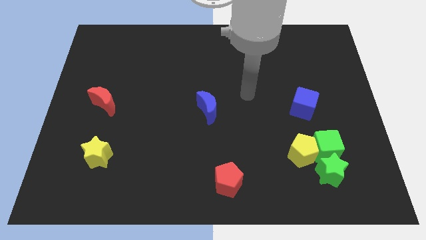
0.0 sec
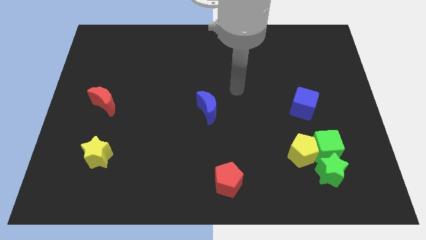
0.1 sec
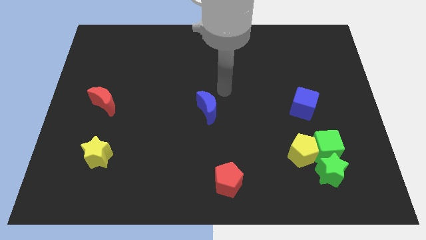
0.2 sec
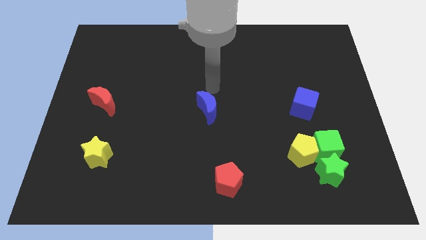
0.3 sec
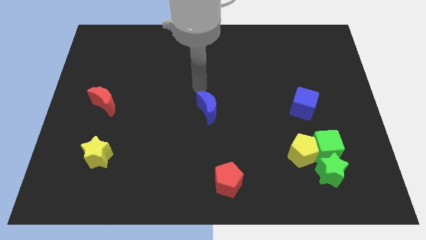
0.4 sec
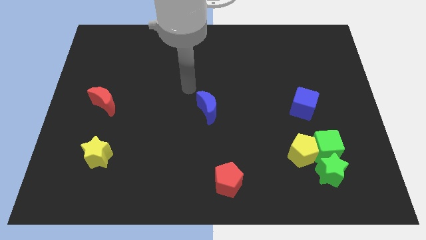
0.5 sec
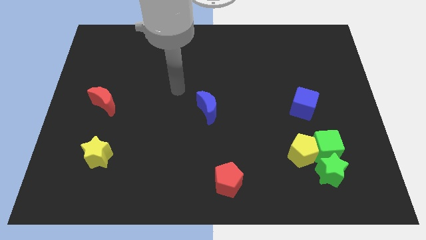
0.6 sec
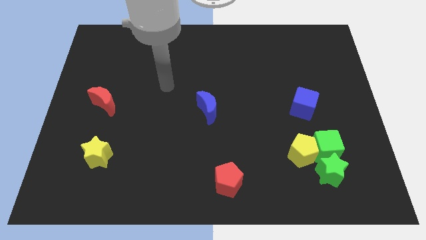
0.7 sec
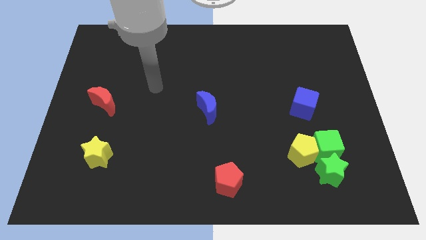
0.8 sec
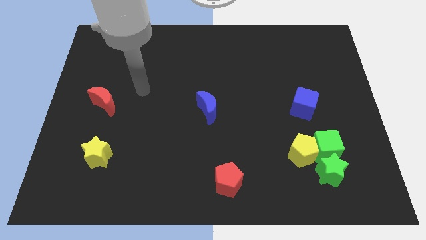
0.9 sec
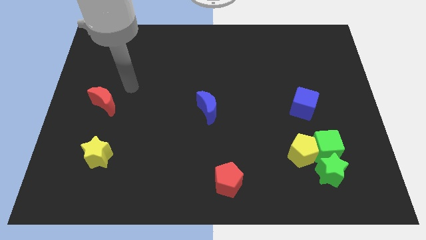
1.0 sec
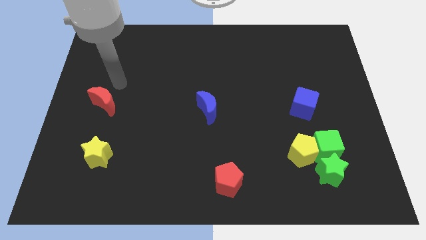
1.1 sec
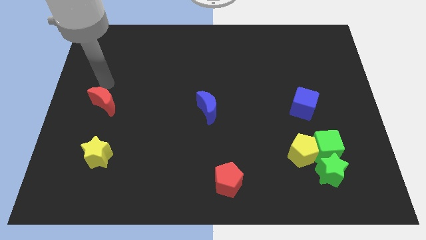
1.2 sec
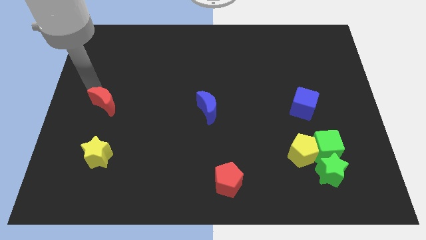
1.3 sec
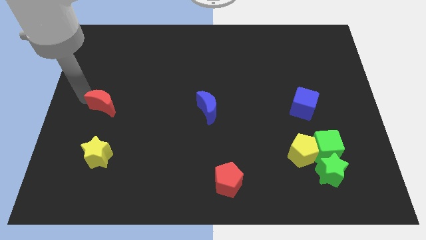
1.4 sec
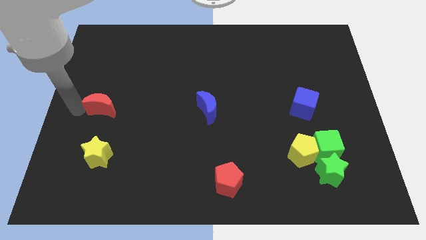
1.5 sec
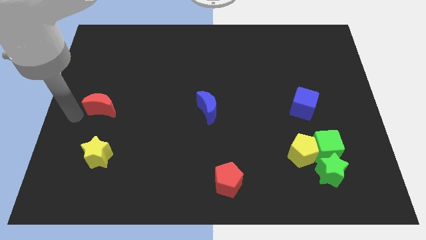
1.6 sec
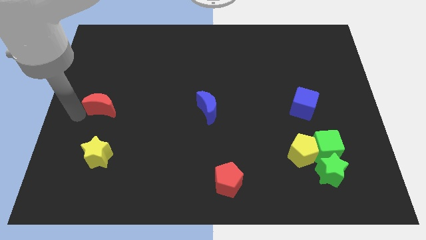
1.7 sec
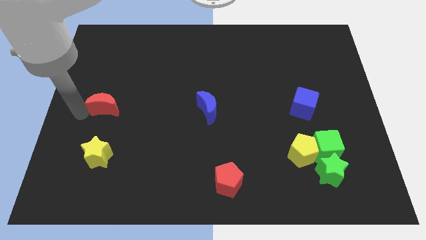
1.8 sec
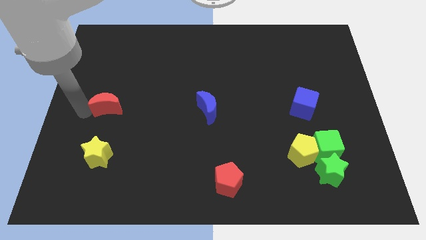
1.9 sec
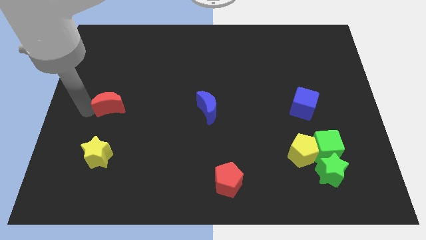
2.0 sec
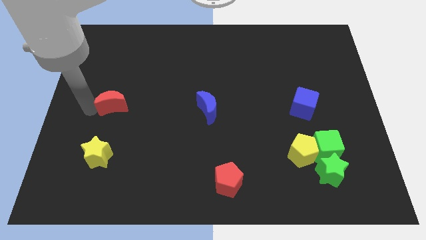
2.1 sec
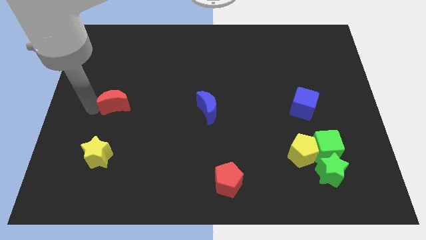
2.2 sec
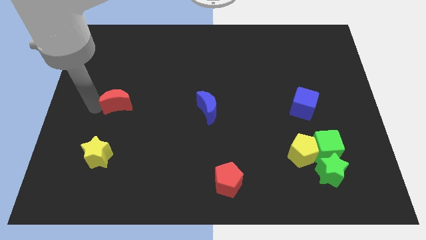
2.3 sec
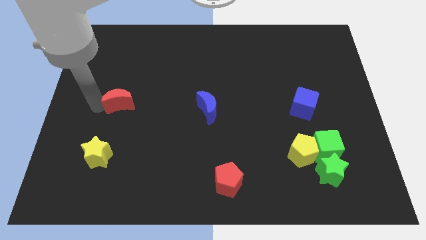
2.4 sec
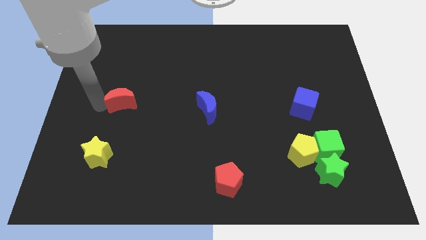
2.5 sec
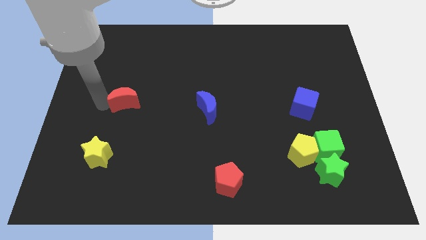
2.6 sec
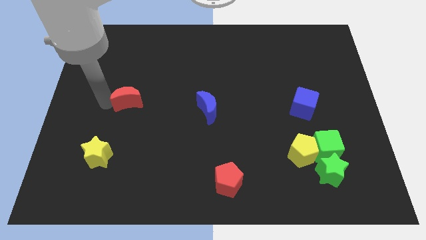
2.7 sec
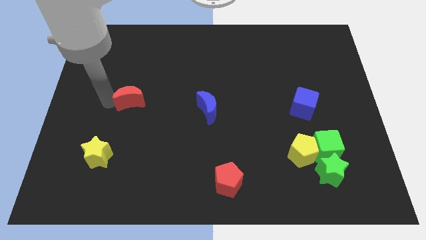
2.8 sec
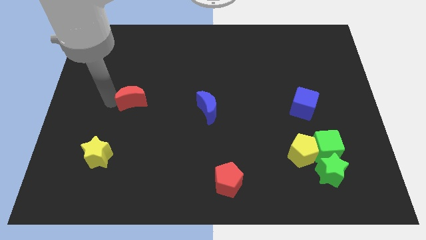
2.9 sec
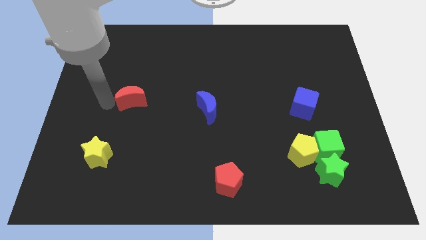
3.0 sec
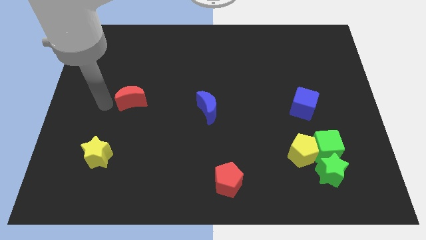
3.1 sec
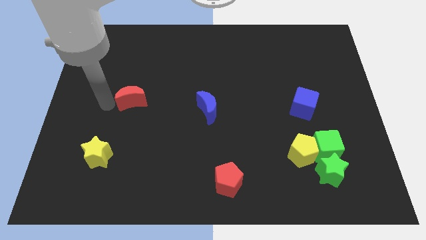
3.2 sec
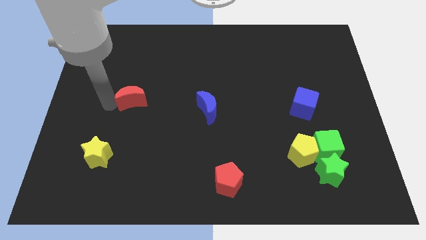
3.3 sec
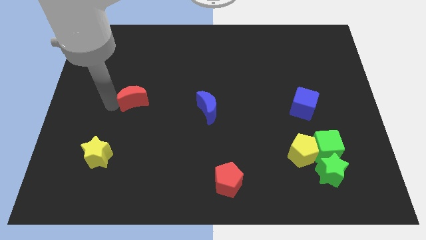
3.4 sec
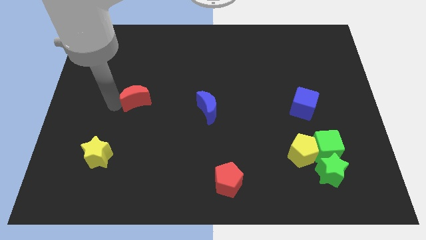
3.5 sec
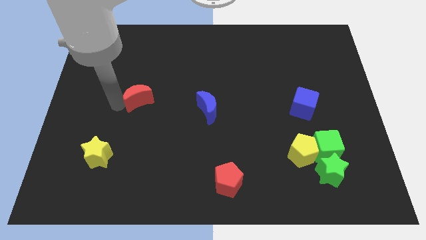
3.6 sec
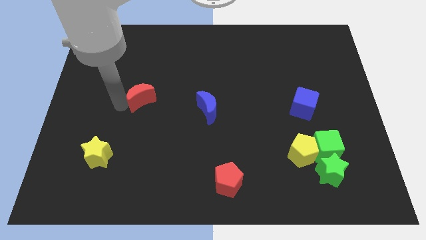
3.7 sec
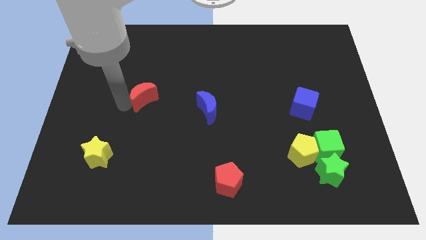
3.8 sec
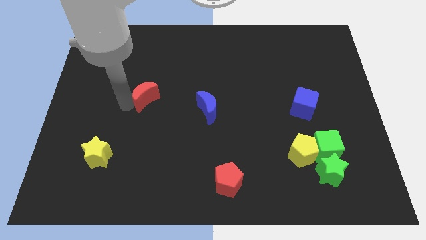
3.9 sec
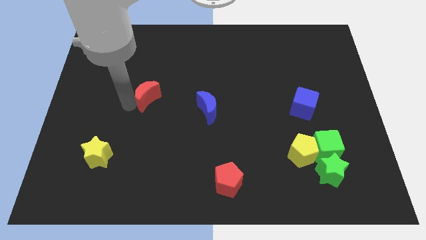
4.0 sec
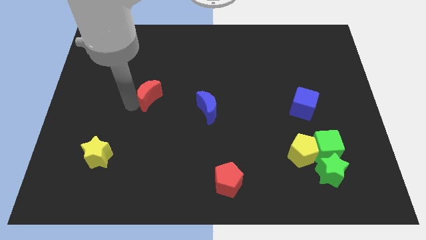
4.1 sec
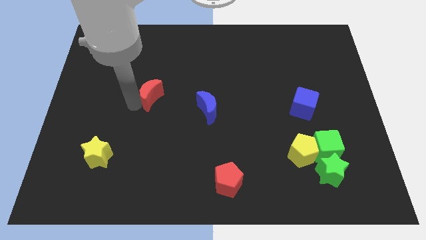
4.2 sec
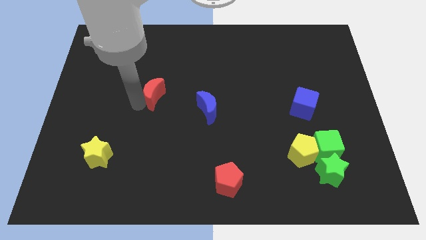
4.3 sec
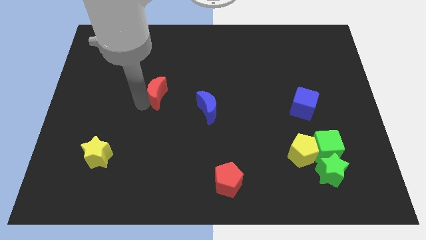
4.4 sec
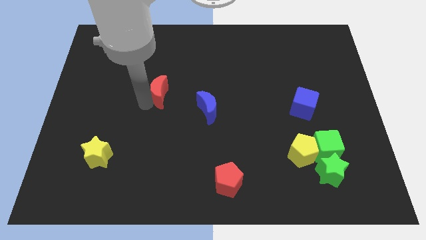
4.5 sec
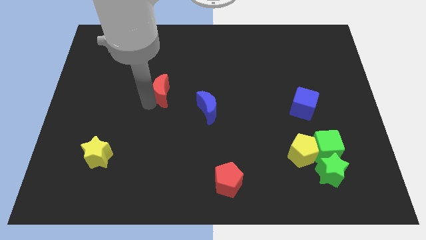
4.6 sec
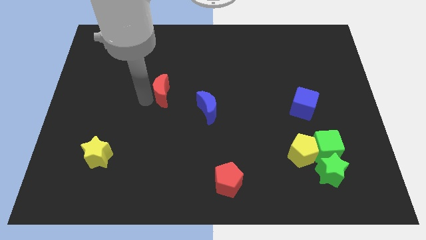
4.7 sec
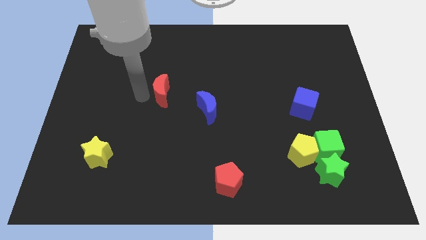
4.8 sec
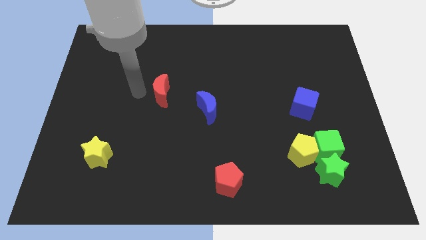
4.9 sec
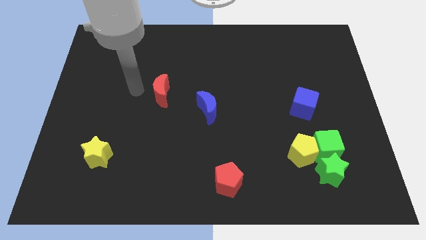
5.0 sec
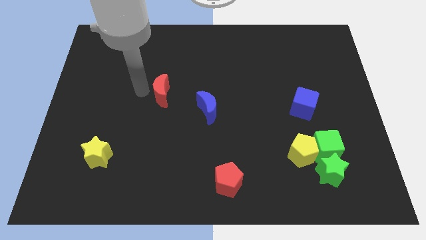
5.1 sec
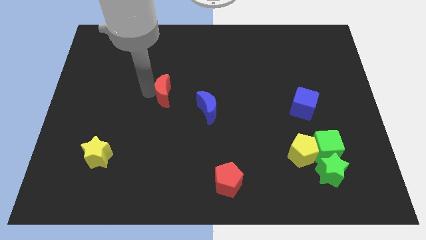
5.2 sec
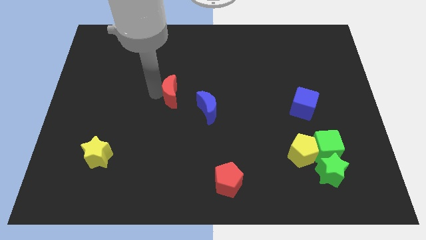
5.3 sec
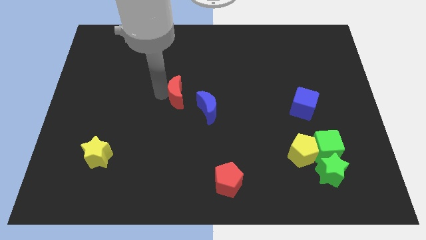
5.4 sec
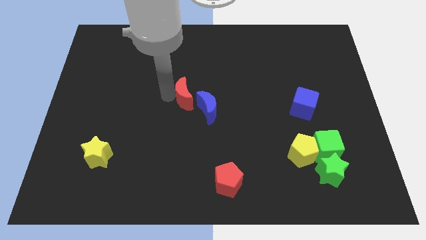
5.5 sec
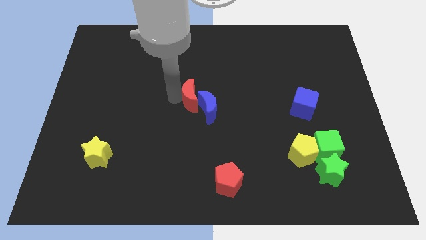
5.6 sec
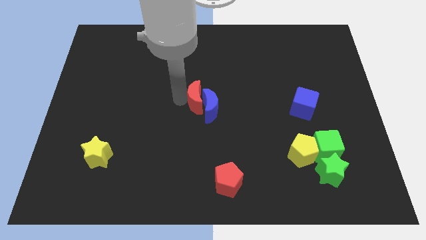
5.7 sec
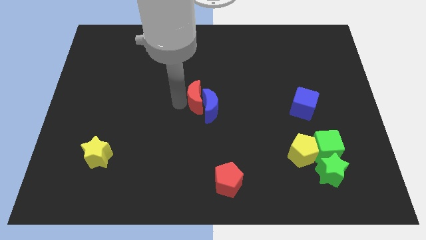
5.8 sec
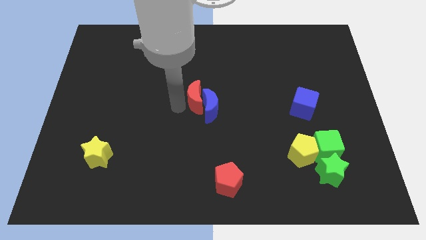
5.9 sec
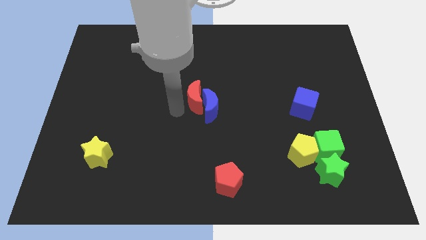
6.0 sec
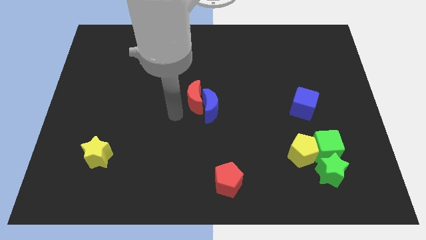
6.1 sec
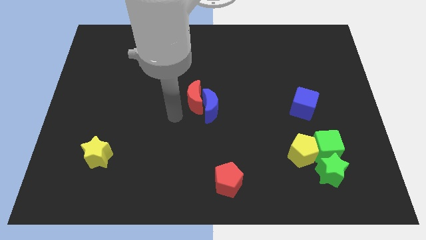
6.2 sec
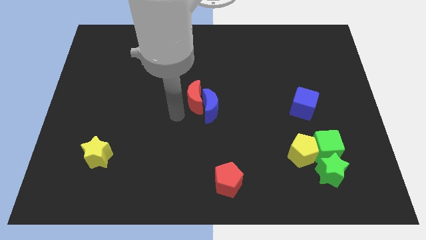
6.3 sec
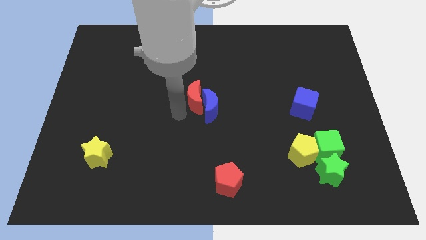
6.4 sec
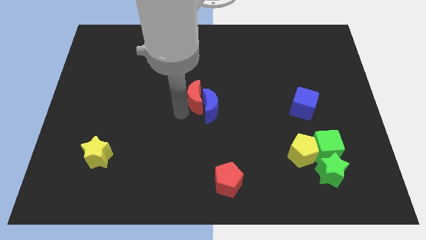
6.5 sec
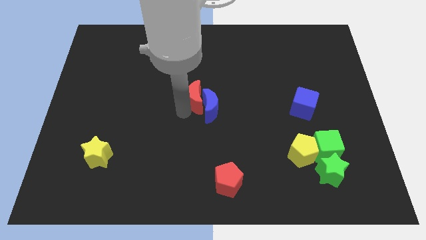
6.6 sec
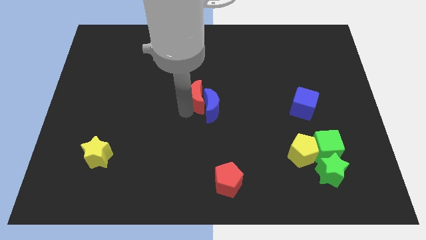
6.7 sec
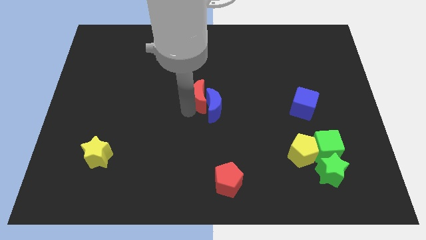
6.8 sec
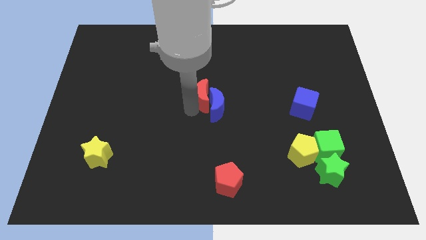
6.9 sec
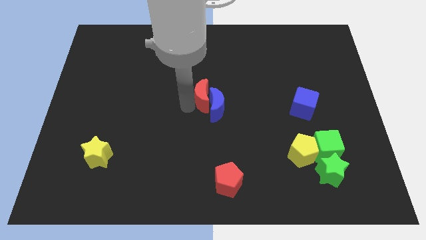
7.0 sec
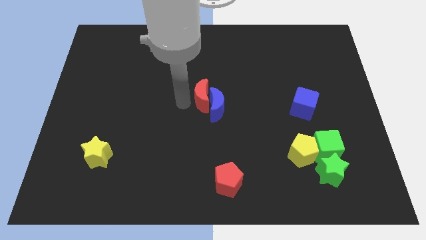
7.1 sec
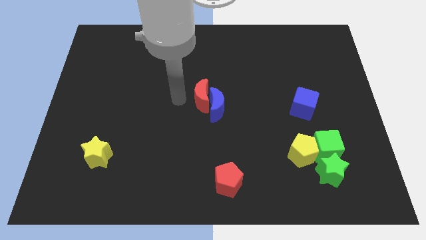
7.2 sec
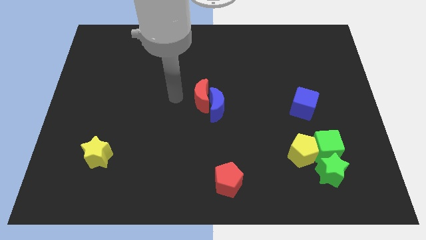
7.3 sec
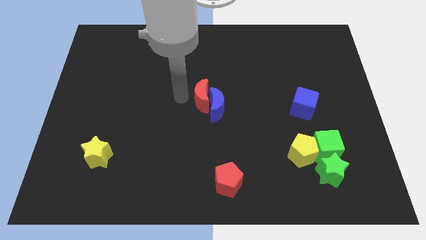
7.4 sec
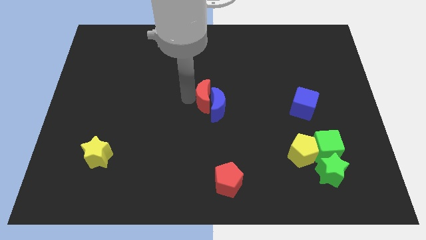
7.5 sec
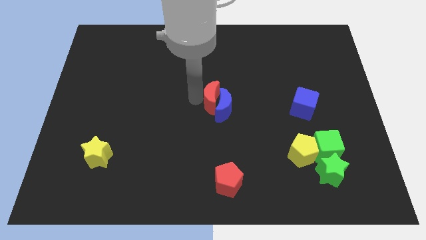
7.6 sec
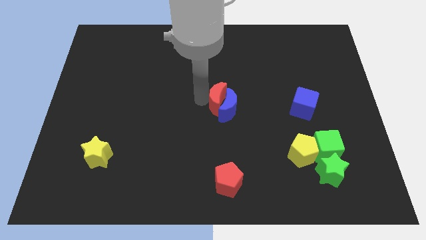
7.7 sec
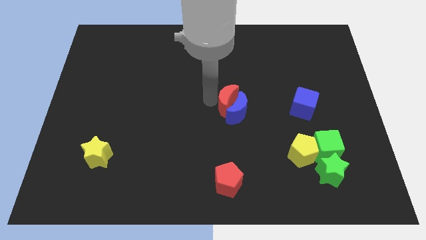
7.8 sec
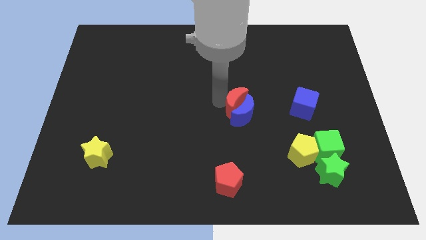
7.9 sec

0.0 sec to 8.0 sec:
put the red moon just left of the blue cube

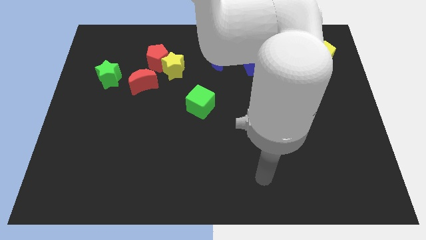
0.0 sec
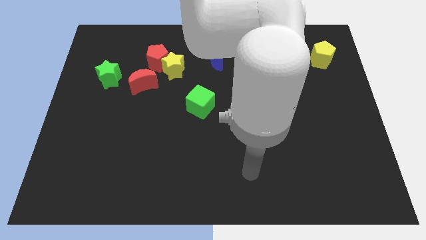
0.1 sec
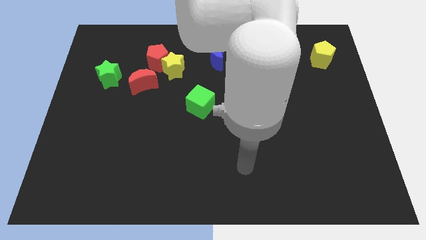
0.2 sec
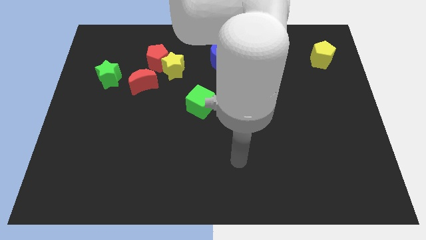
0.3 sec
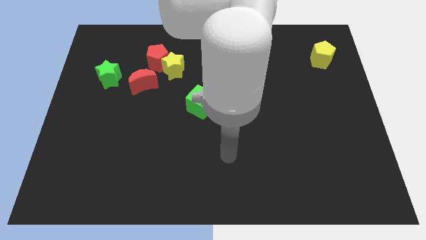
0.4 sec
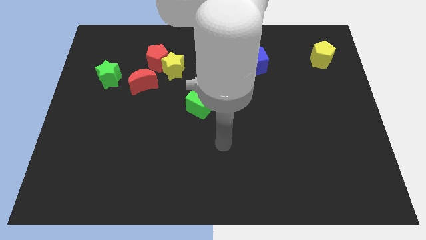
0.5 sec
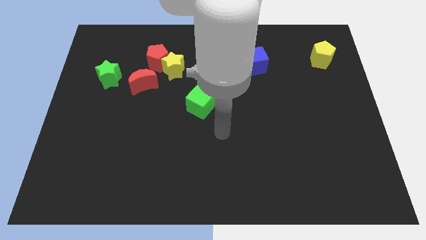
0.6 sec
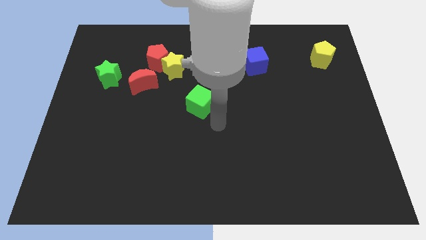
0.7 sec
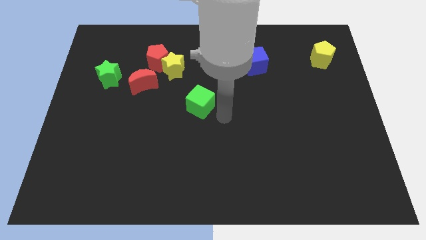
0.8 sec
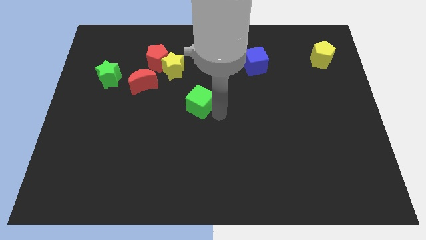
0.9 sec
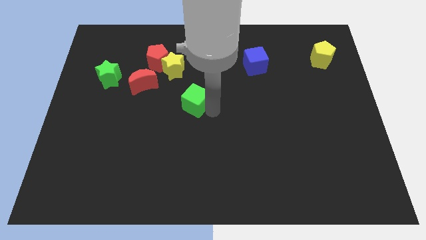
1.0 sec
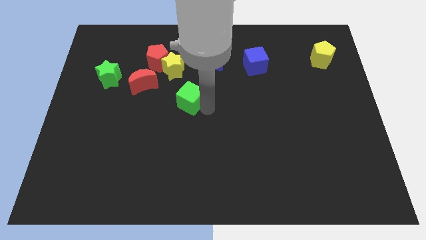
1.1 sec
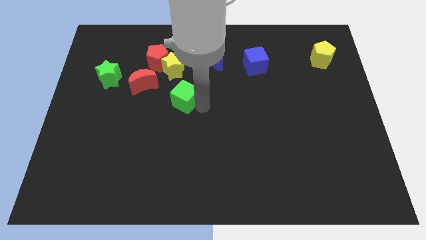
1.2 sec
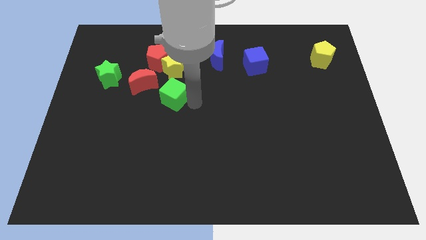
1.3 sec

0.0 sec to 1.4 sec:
push the green cube to the bottom side of the red pentagon
